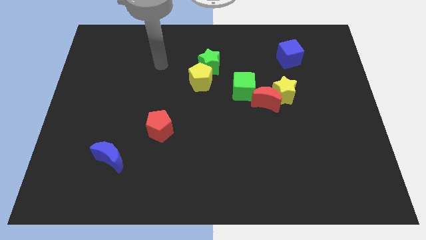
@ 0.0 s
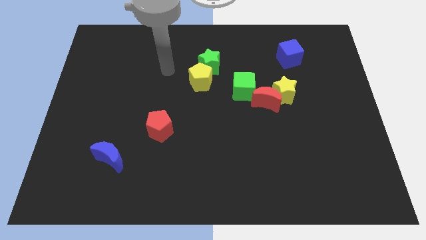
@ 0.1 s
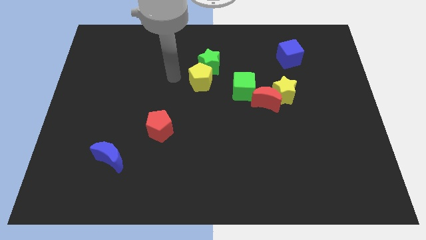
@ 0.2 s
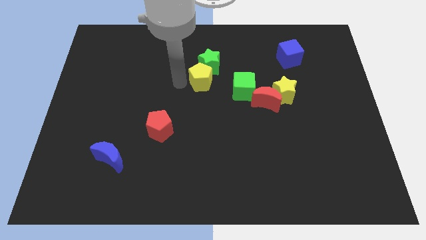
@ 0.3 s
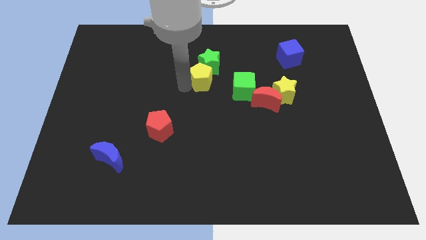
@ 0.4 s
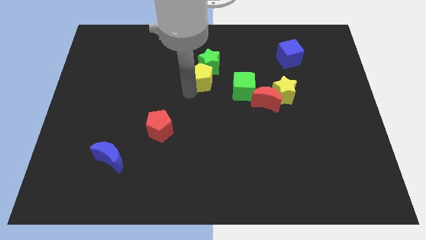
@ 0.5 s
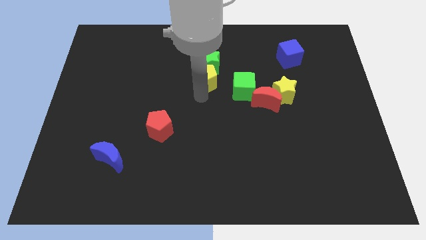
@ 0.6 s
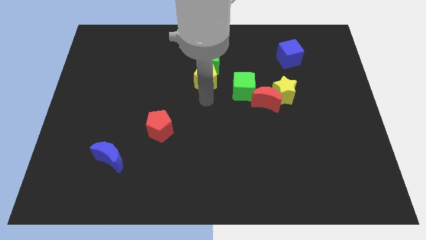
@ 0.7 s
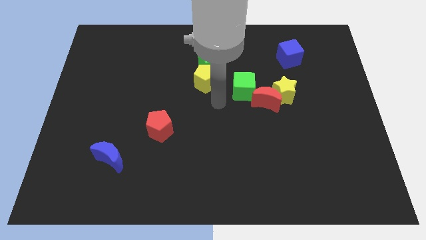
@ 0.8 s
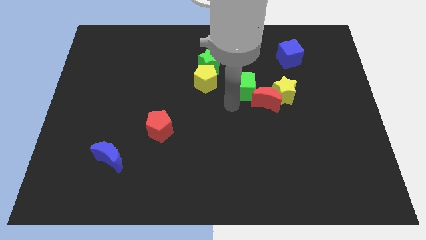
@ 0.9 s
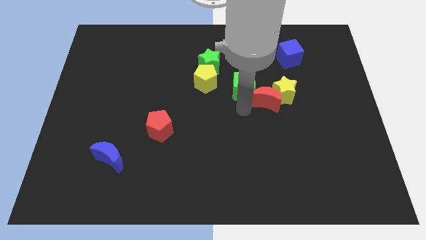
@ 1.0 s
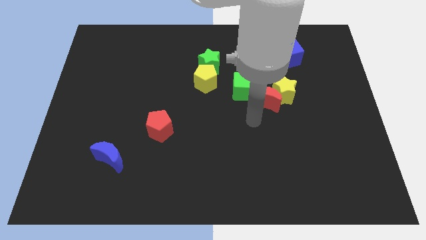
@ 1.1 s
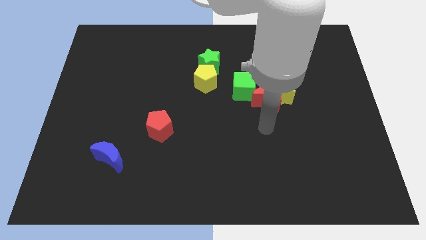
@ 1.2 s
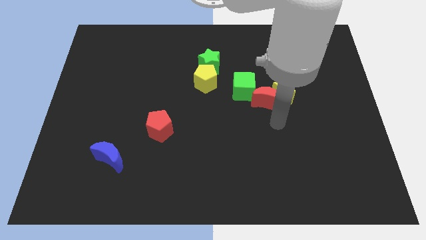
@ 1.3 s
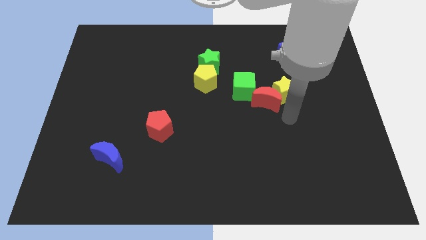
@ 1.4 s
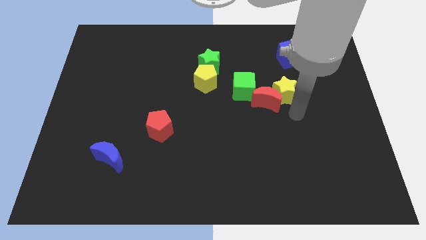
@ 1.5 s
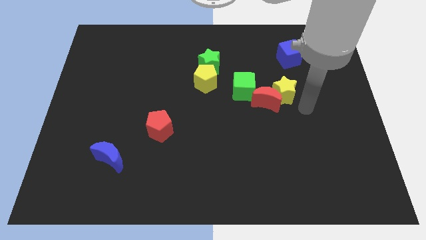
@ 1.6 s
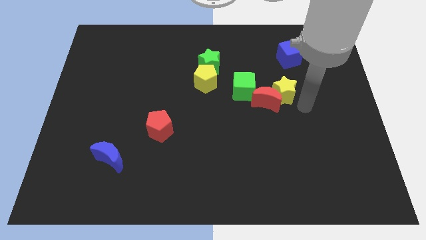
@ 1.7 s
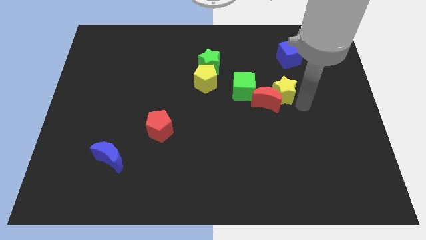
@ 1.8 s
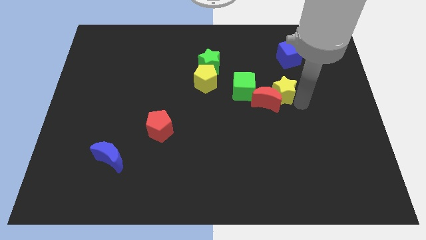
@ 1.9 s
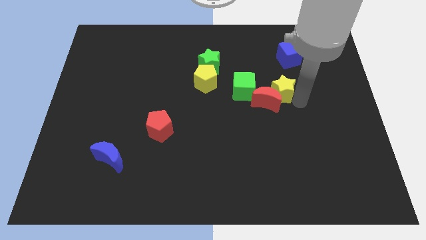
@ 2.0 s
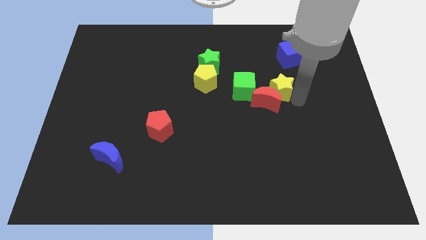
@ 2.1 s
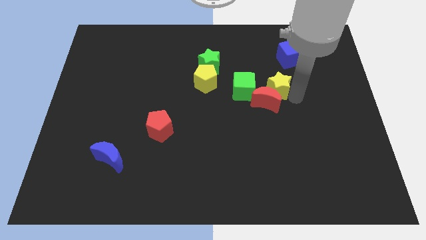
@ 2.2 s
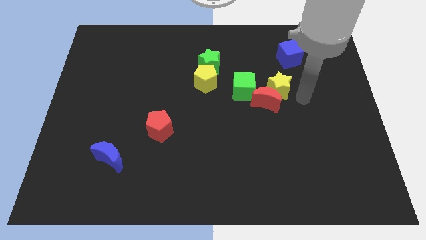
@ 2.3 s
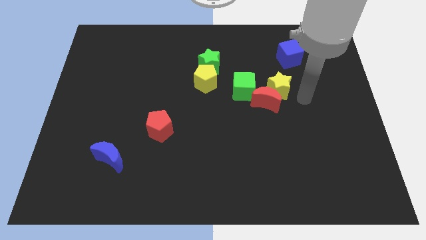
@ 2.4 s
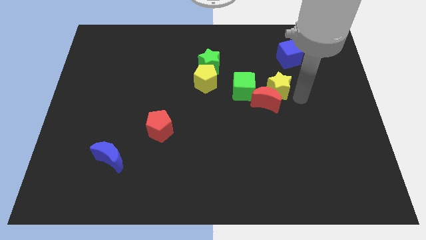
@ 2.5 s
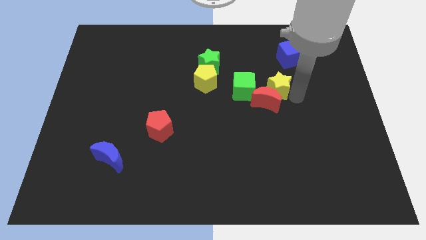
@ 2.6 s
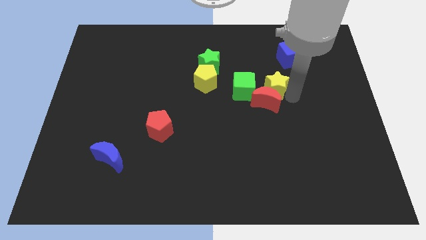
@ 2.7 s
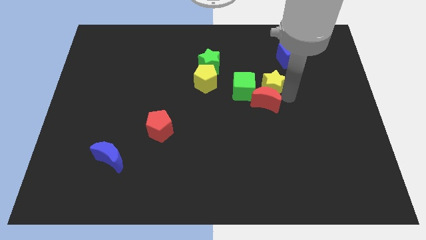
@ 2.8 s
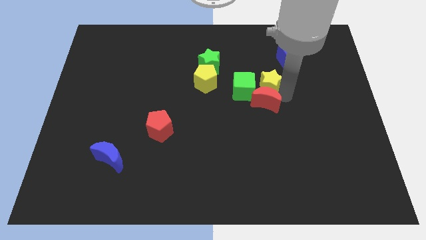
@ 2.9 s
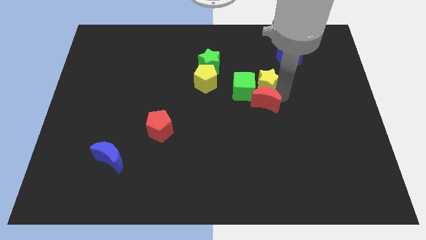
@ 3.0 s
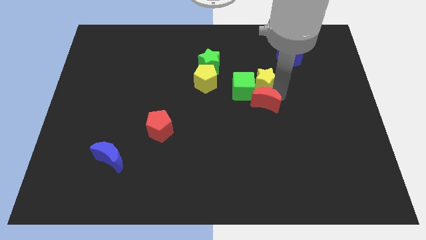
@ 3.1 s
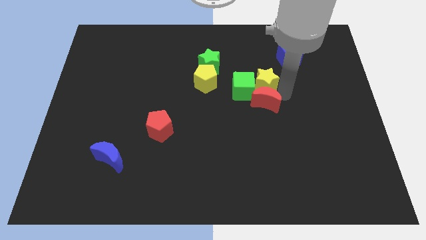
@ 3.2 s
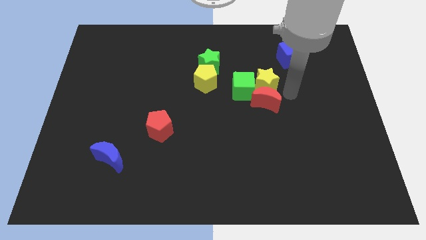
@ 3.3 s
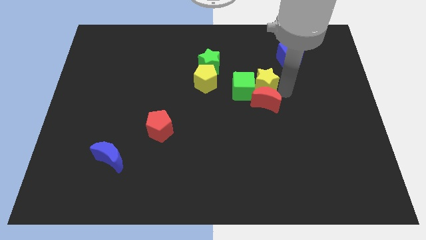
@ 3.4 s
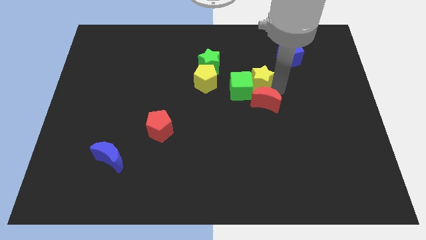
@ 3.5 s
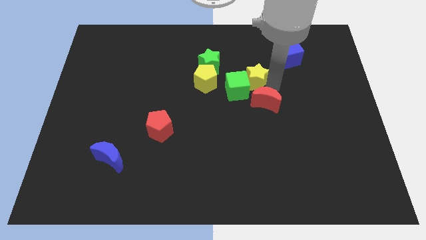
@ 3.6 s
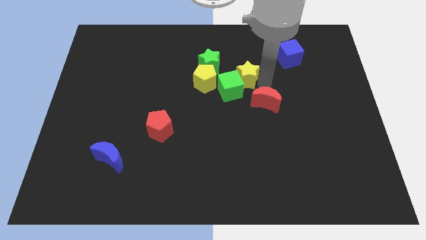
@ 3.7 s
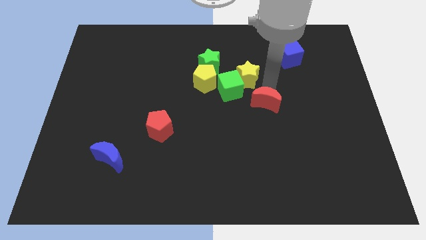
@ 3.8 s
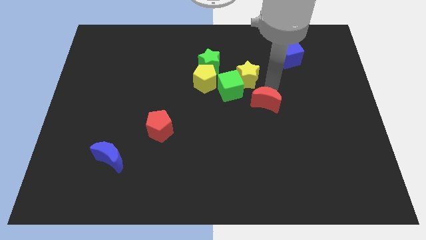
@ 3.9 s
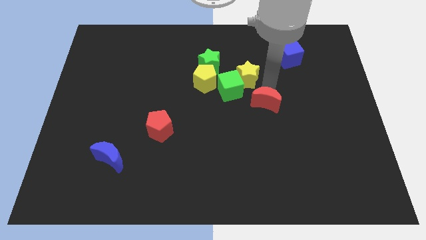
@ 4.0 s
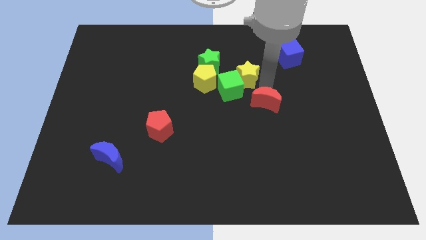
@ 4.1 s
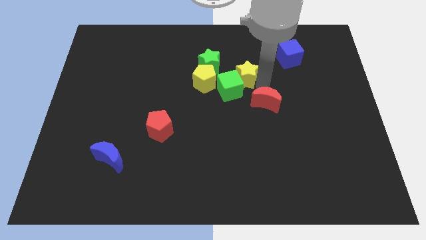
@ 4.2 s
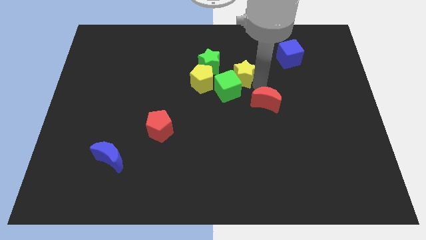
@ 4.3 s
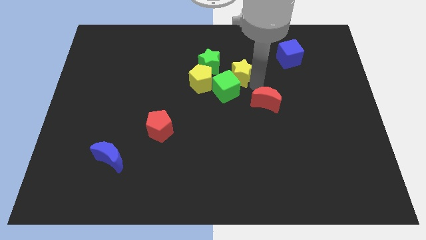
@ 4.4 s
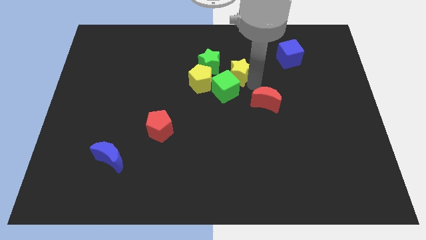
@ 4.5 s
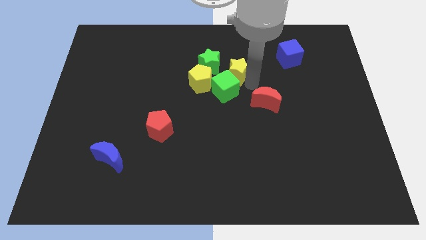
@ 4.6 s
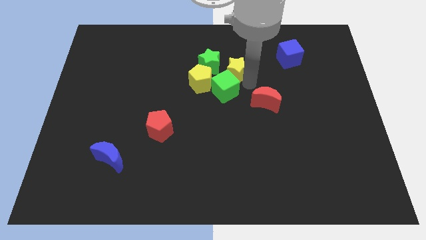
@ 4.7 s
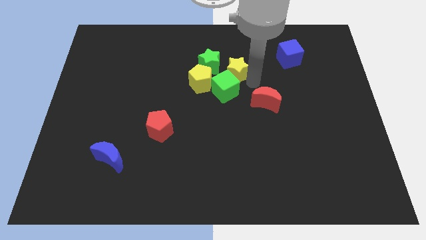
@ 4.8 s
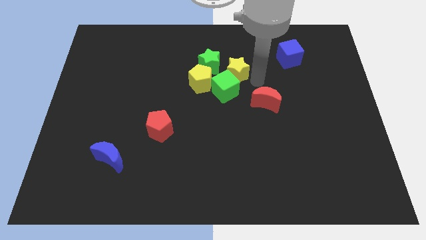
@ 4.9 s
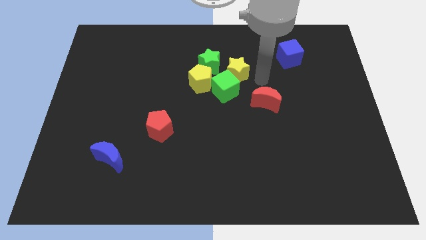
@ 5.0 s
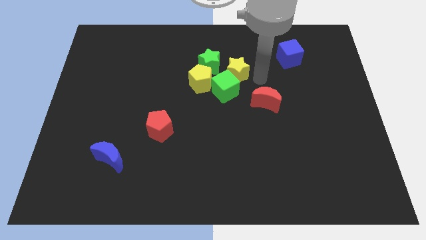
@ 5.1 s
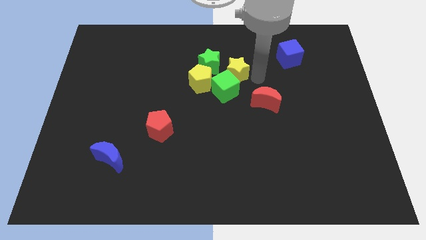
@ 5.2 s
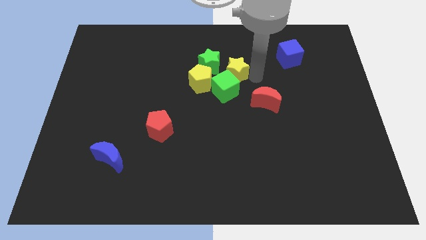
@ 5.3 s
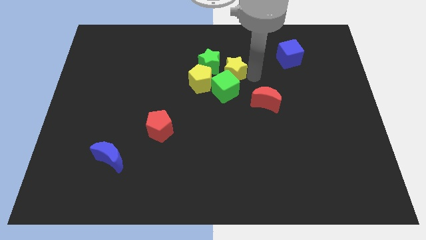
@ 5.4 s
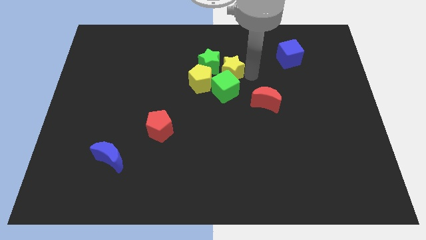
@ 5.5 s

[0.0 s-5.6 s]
slide the yellow star next to the green star

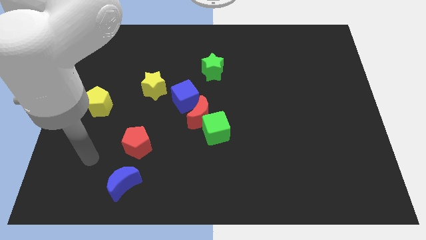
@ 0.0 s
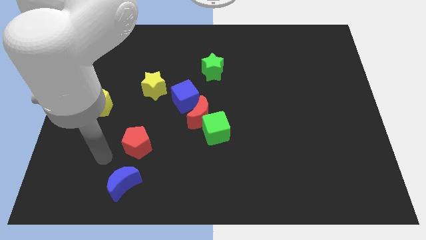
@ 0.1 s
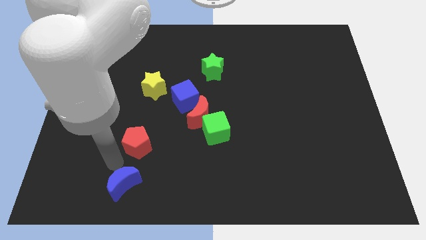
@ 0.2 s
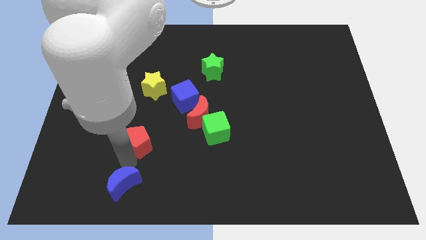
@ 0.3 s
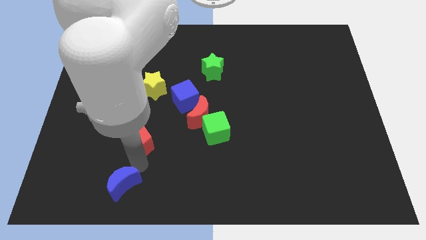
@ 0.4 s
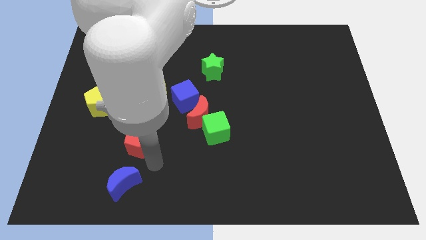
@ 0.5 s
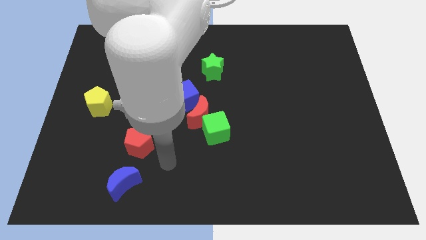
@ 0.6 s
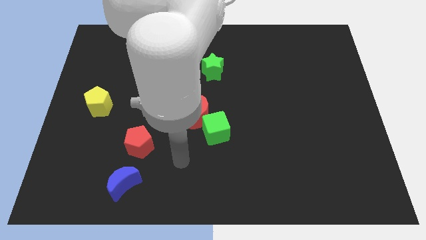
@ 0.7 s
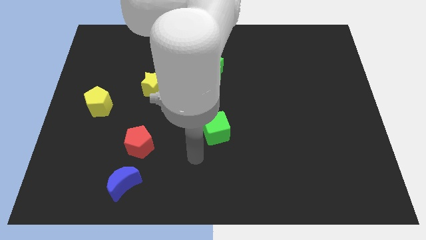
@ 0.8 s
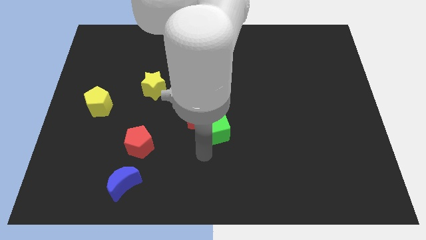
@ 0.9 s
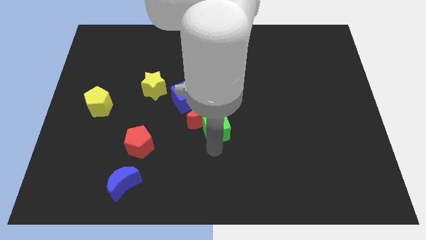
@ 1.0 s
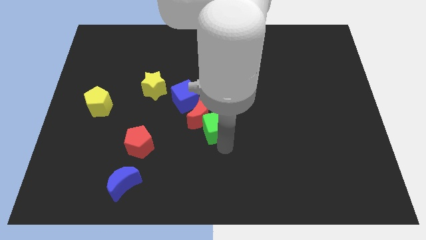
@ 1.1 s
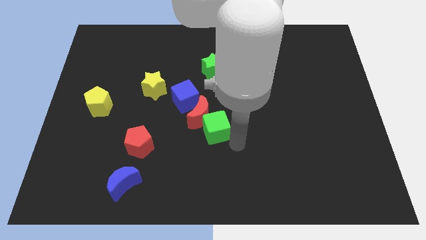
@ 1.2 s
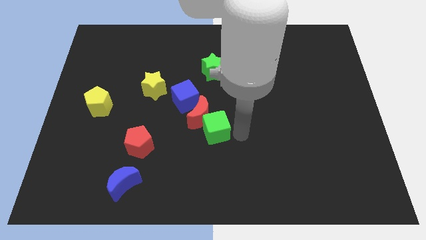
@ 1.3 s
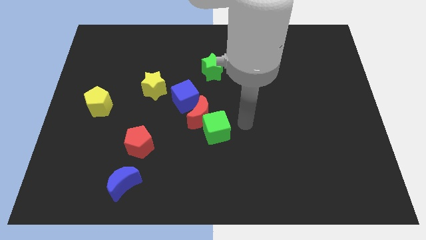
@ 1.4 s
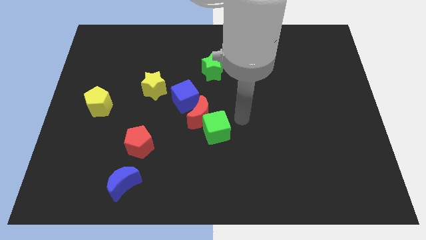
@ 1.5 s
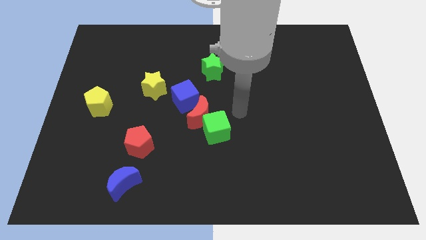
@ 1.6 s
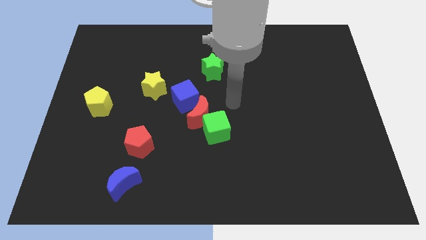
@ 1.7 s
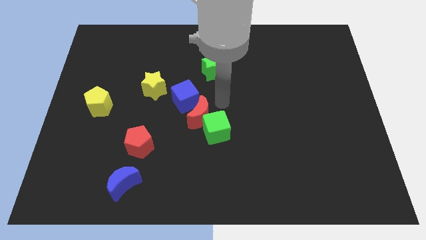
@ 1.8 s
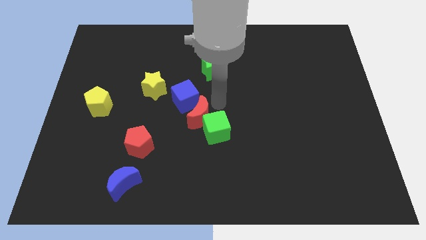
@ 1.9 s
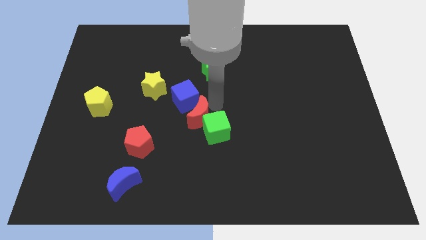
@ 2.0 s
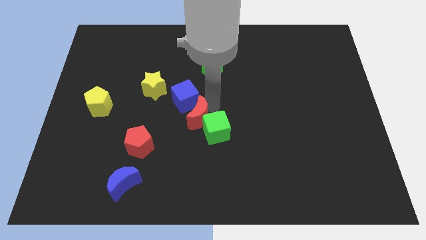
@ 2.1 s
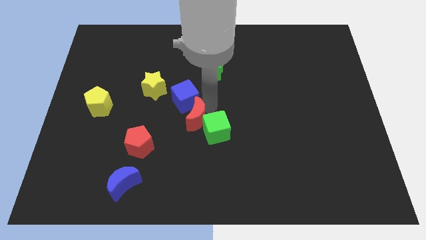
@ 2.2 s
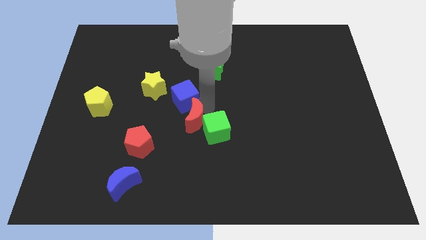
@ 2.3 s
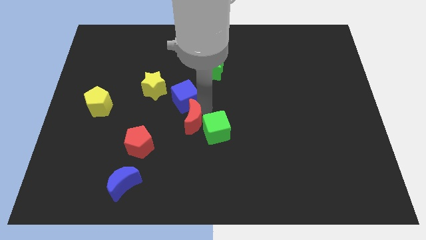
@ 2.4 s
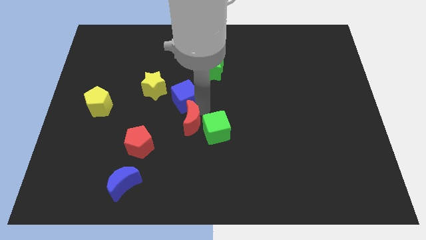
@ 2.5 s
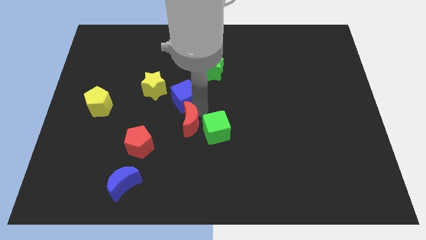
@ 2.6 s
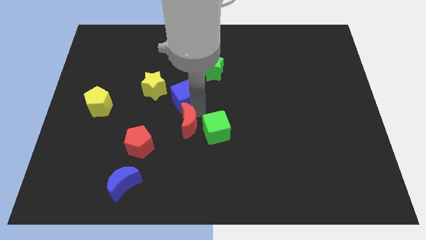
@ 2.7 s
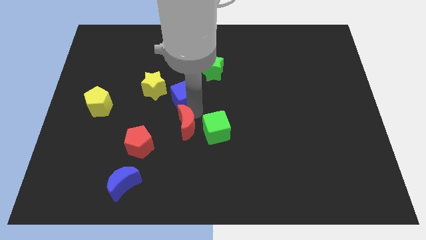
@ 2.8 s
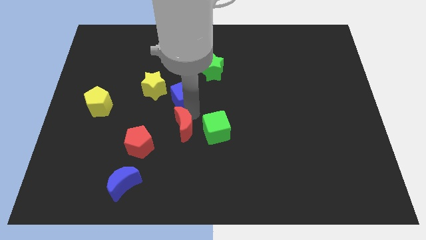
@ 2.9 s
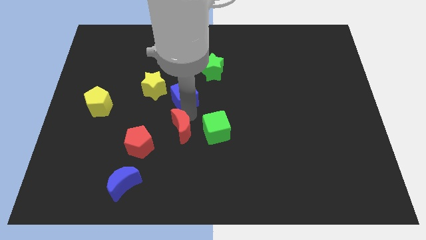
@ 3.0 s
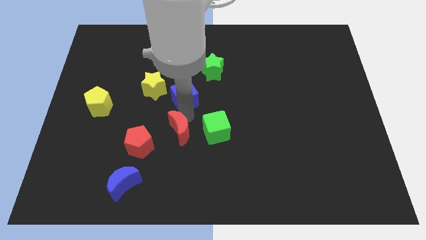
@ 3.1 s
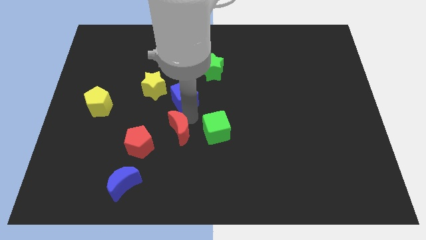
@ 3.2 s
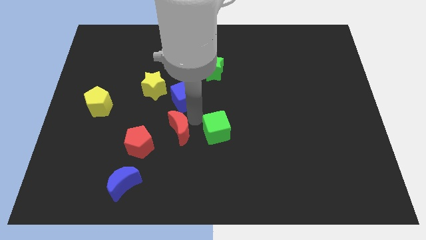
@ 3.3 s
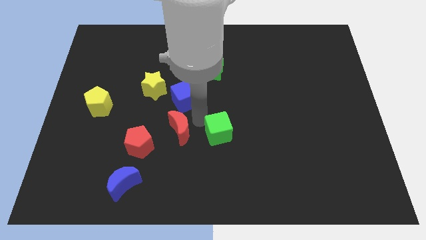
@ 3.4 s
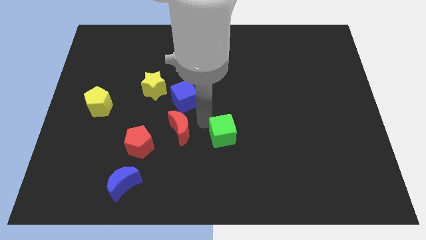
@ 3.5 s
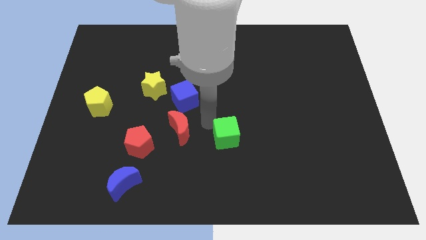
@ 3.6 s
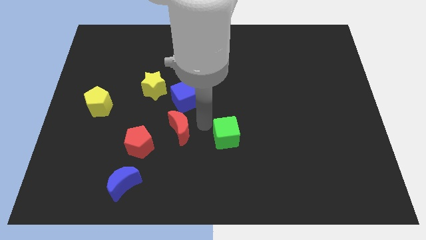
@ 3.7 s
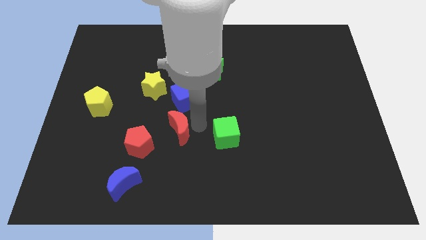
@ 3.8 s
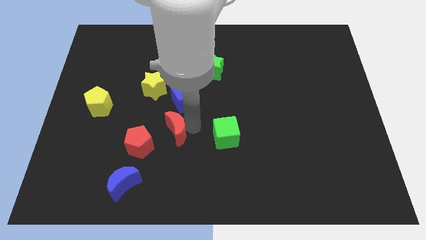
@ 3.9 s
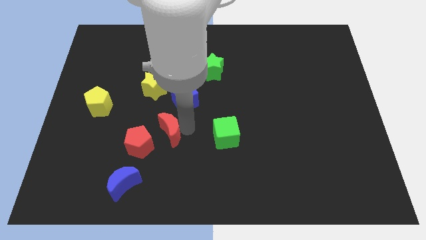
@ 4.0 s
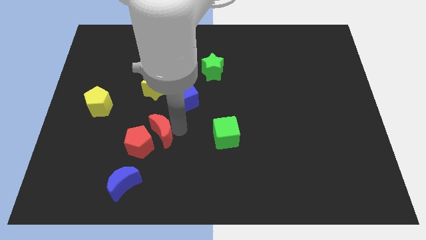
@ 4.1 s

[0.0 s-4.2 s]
move the red moon close to the red pentagon
